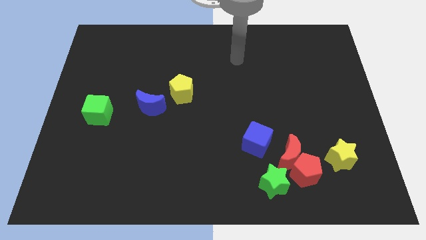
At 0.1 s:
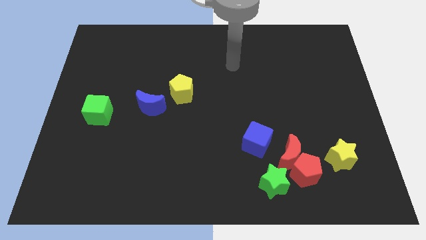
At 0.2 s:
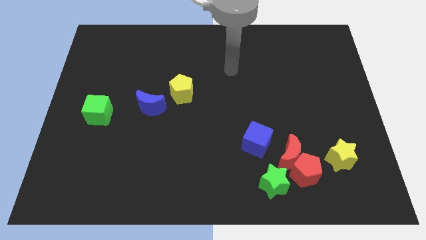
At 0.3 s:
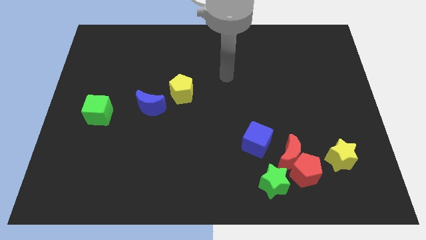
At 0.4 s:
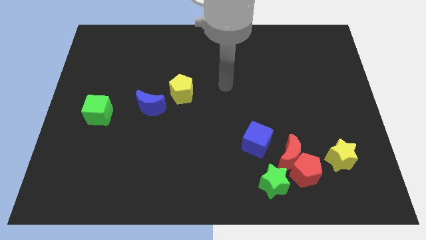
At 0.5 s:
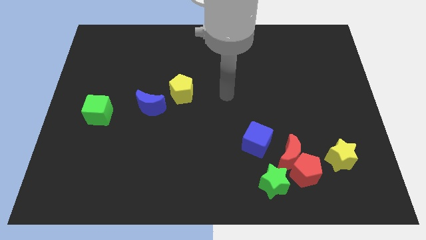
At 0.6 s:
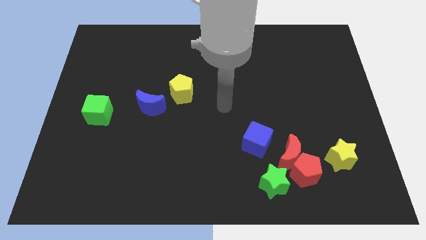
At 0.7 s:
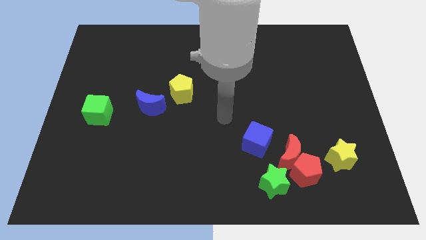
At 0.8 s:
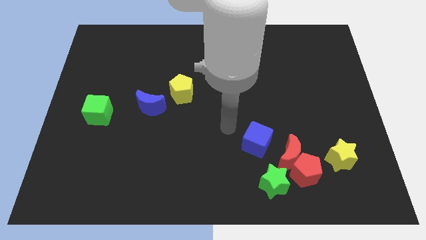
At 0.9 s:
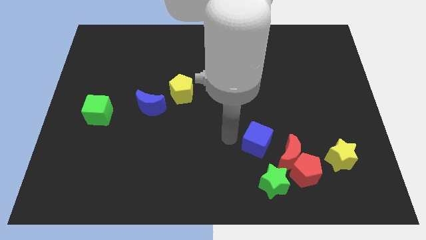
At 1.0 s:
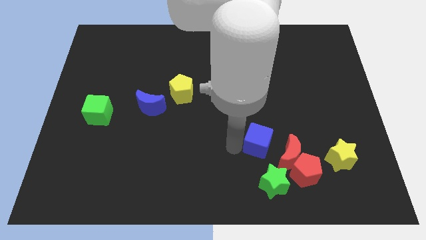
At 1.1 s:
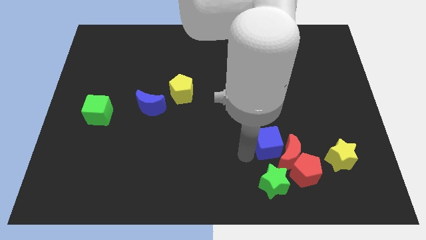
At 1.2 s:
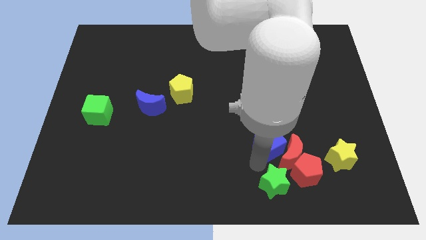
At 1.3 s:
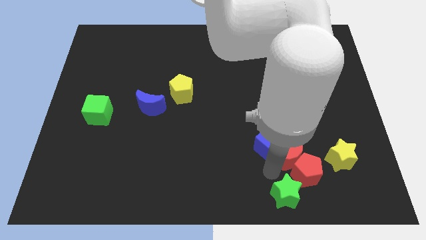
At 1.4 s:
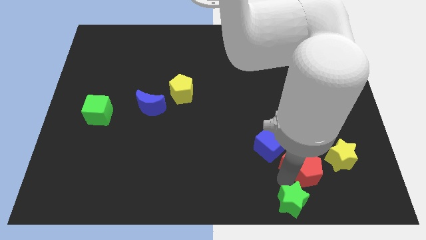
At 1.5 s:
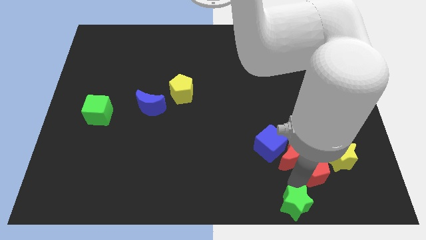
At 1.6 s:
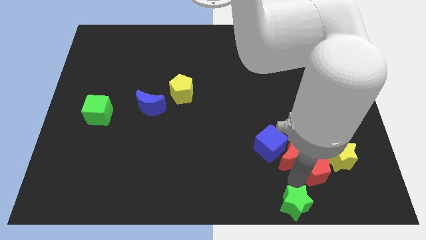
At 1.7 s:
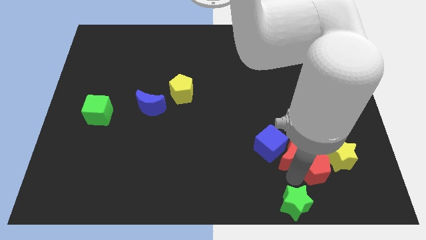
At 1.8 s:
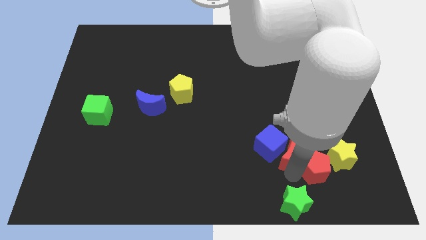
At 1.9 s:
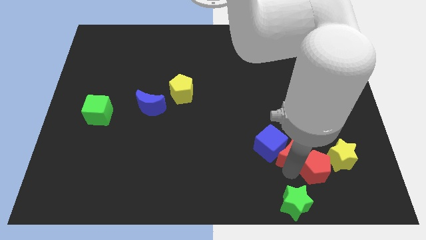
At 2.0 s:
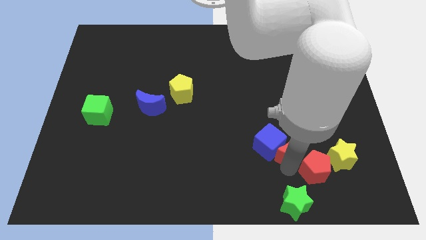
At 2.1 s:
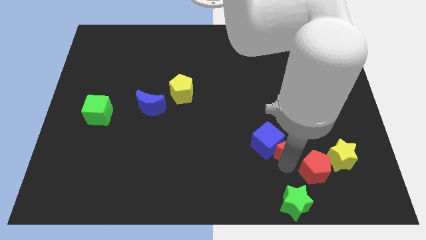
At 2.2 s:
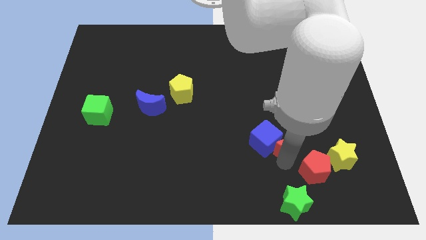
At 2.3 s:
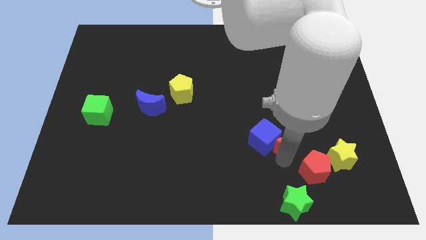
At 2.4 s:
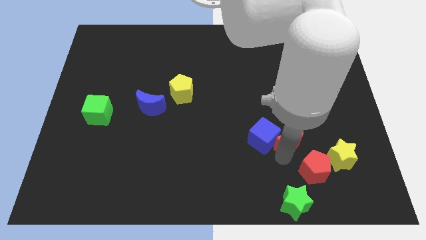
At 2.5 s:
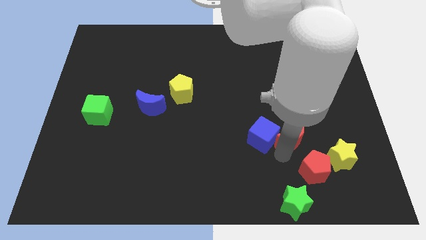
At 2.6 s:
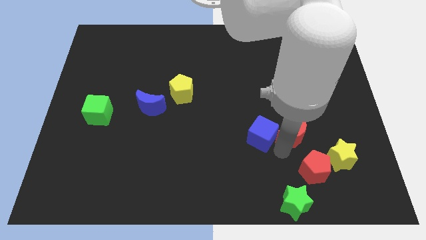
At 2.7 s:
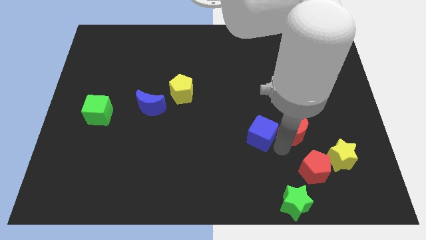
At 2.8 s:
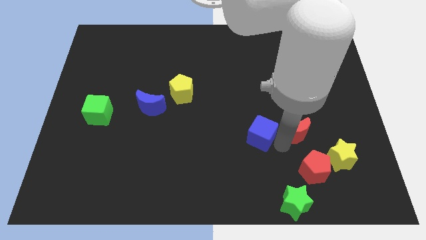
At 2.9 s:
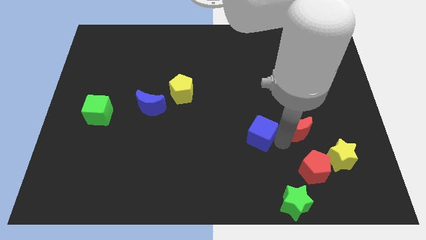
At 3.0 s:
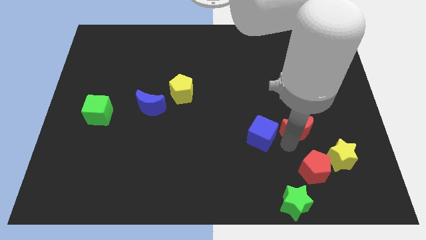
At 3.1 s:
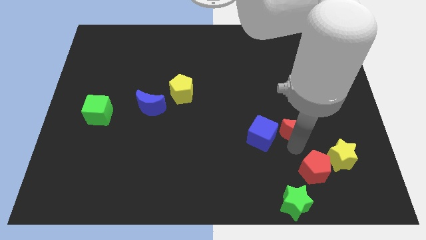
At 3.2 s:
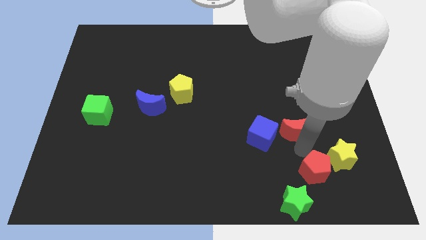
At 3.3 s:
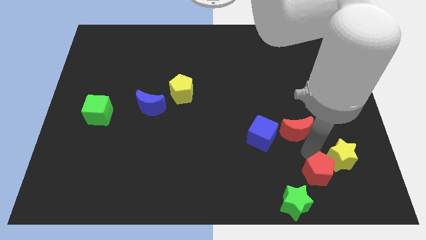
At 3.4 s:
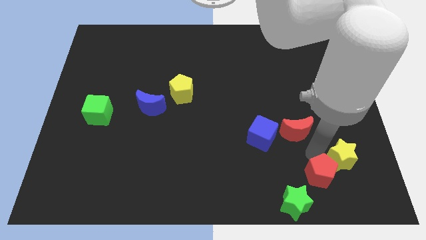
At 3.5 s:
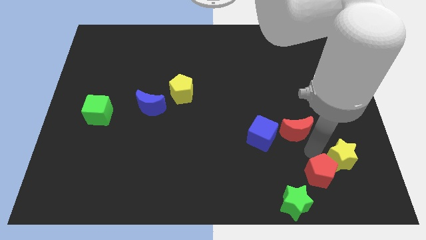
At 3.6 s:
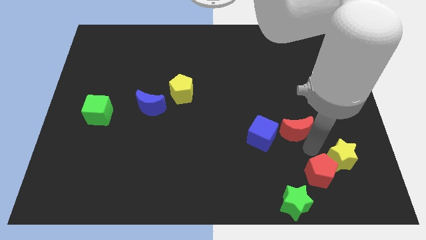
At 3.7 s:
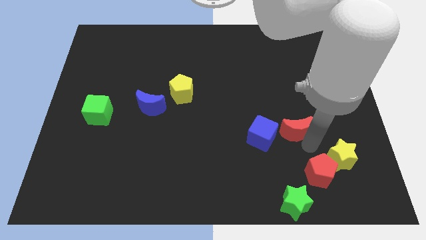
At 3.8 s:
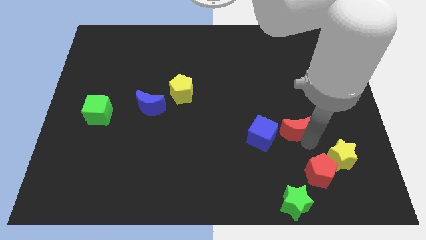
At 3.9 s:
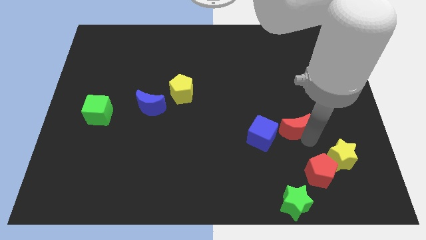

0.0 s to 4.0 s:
slide the red moon slightly up

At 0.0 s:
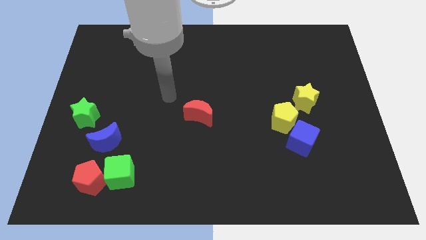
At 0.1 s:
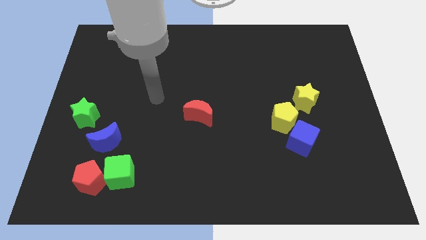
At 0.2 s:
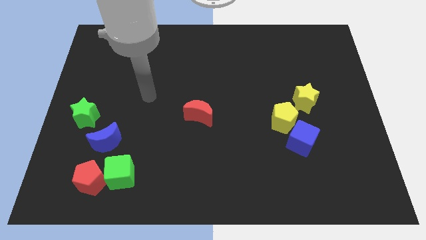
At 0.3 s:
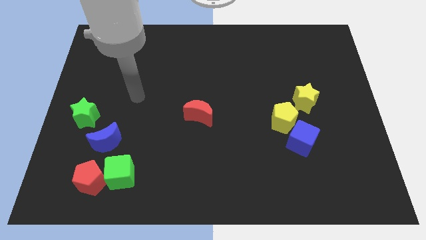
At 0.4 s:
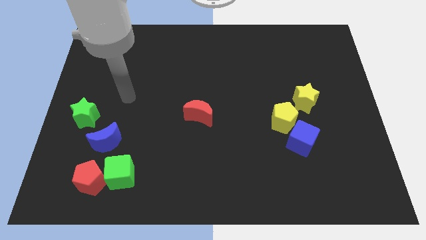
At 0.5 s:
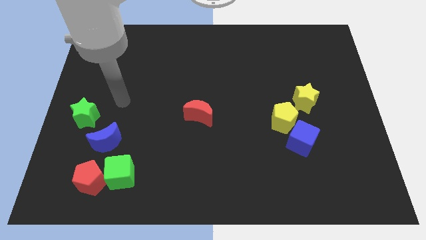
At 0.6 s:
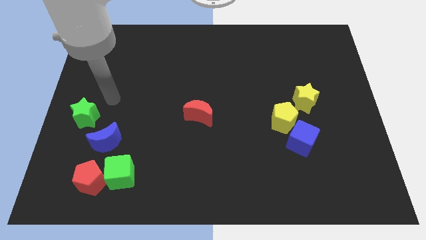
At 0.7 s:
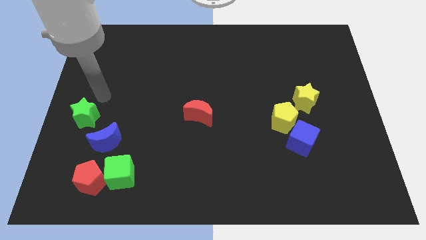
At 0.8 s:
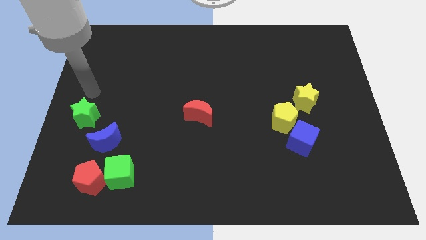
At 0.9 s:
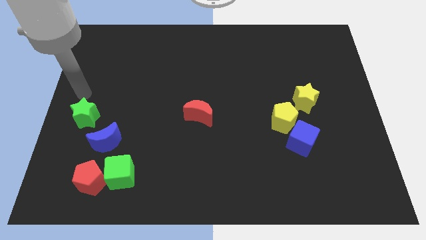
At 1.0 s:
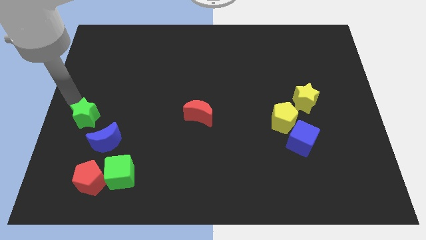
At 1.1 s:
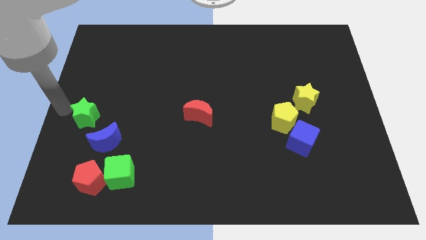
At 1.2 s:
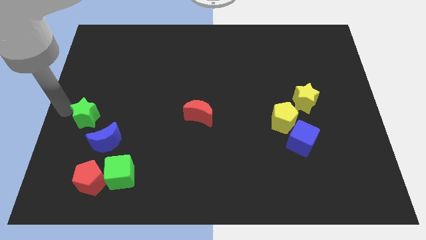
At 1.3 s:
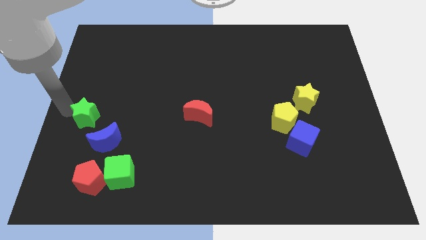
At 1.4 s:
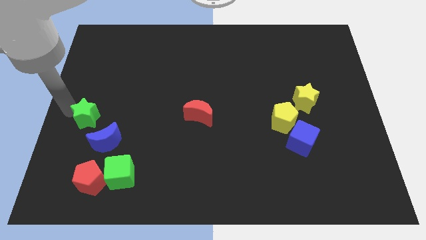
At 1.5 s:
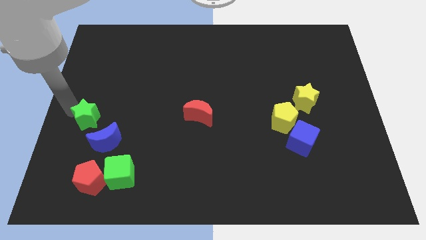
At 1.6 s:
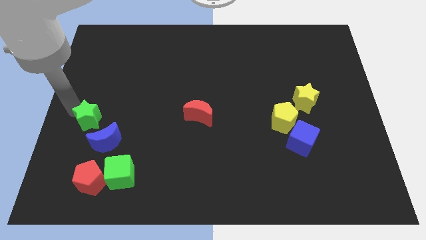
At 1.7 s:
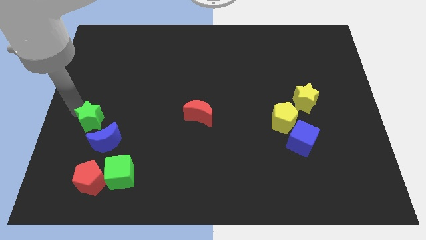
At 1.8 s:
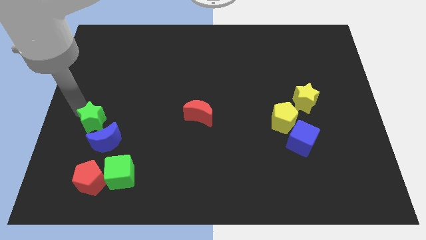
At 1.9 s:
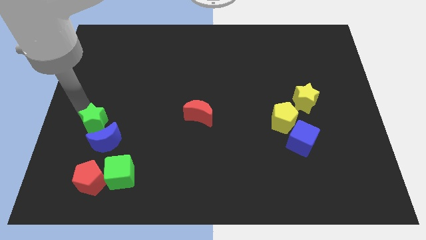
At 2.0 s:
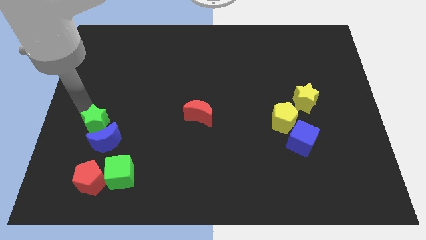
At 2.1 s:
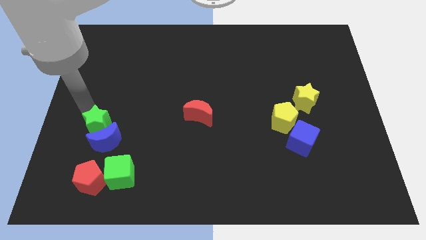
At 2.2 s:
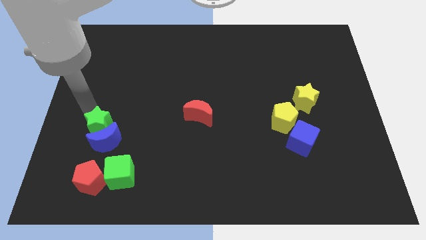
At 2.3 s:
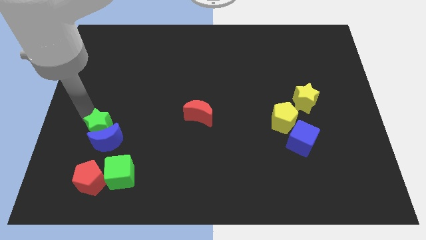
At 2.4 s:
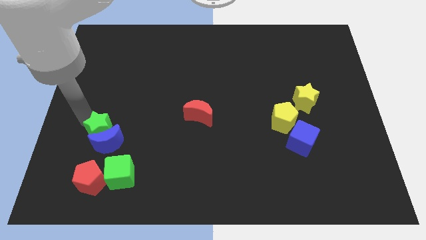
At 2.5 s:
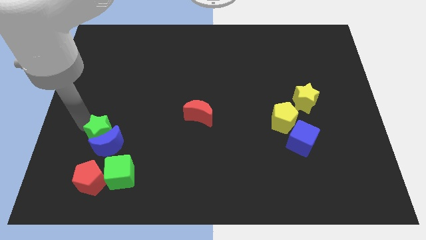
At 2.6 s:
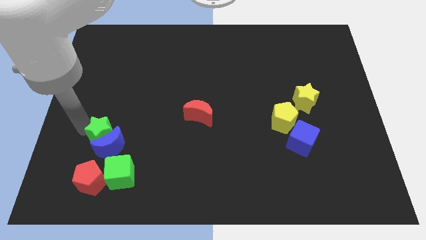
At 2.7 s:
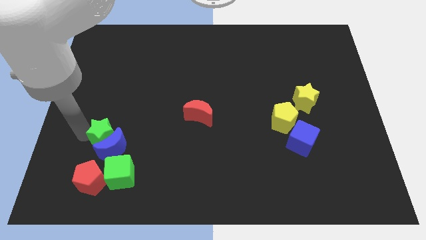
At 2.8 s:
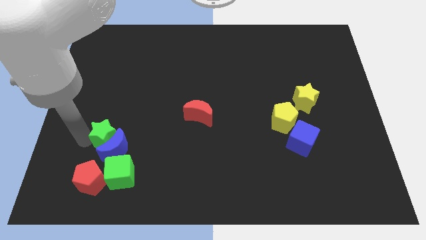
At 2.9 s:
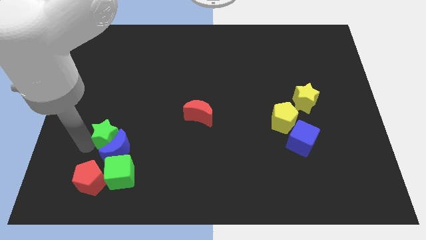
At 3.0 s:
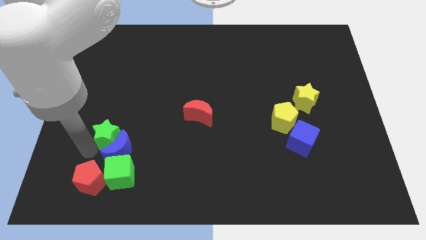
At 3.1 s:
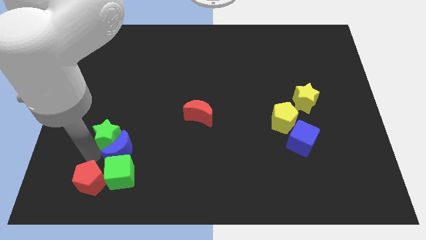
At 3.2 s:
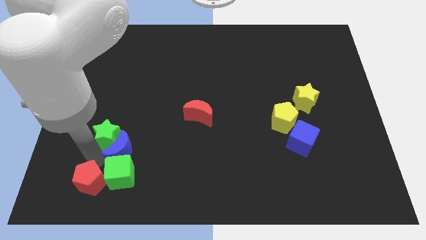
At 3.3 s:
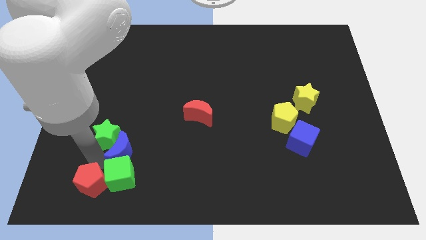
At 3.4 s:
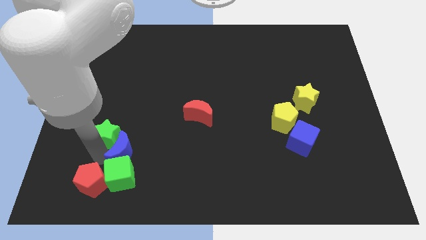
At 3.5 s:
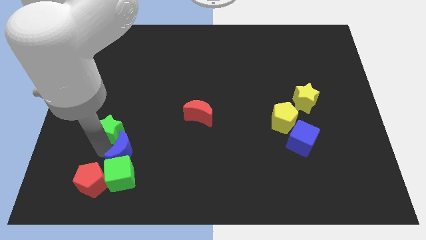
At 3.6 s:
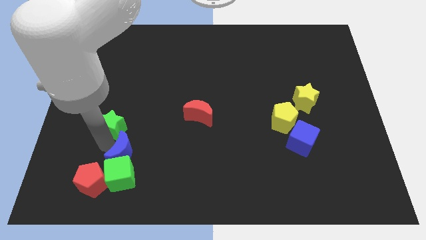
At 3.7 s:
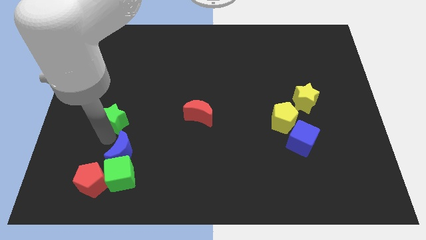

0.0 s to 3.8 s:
slightly move the green star right

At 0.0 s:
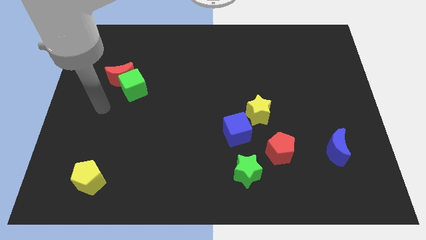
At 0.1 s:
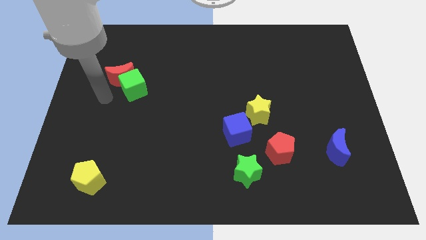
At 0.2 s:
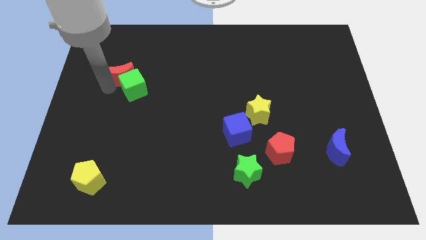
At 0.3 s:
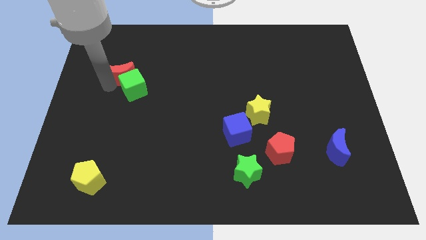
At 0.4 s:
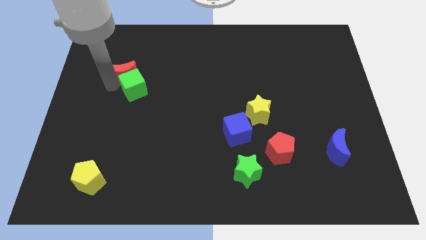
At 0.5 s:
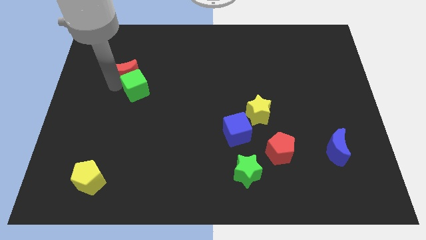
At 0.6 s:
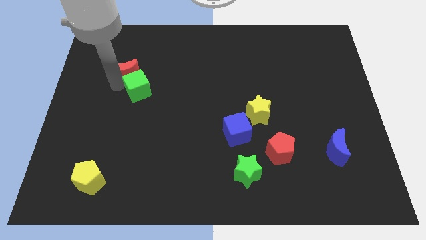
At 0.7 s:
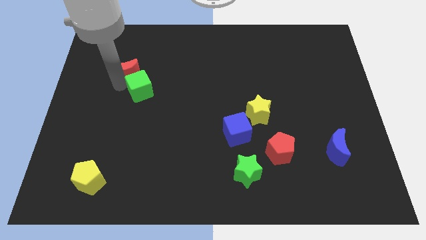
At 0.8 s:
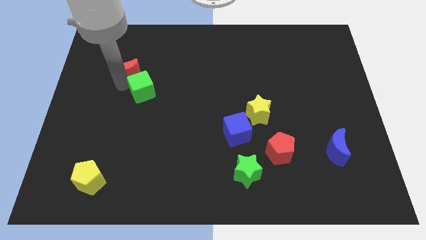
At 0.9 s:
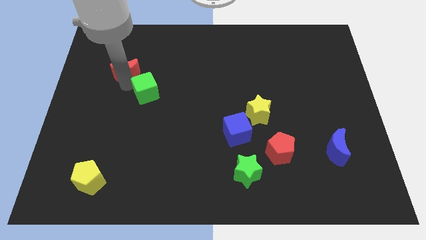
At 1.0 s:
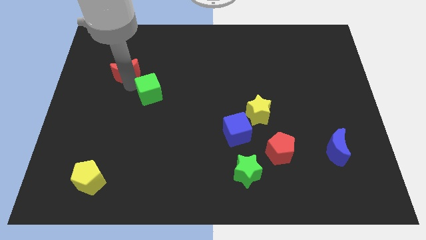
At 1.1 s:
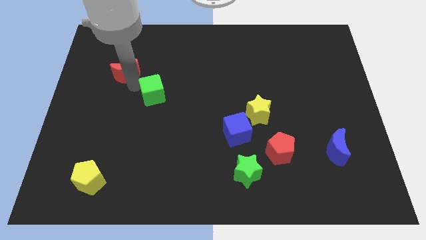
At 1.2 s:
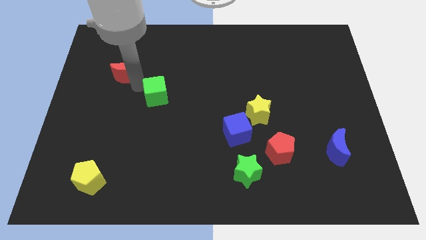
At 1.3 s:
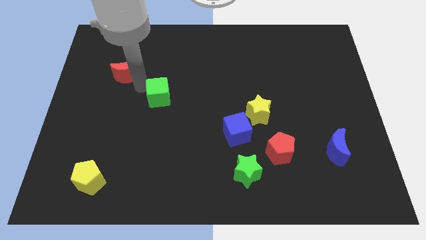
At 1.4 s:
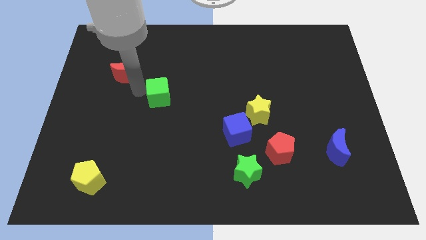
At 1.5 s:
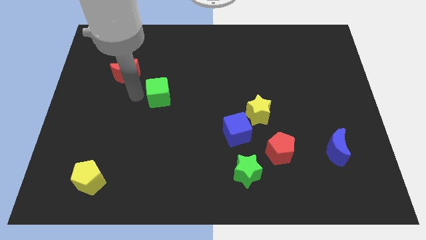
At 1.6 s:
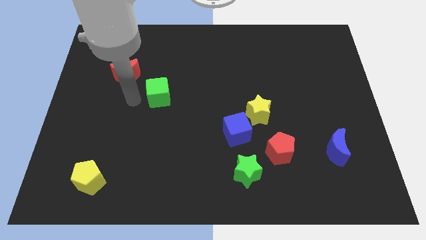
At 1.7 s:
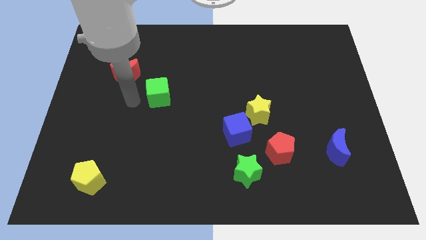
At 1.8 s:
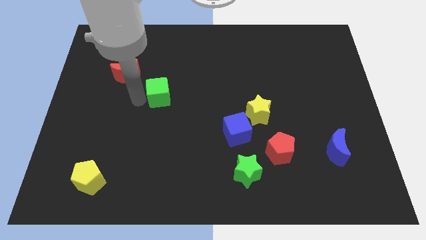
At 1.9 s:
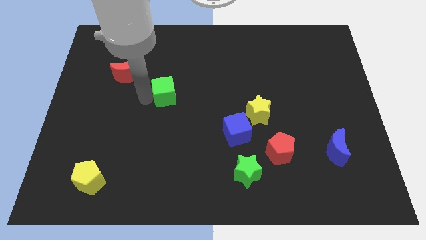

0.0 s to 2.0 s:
move the green cube right a bit
